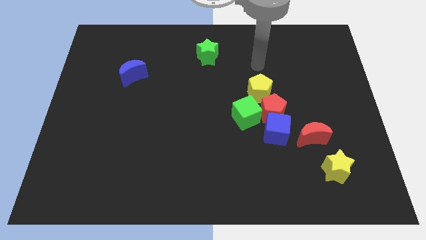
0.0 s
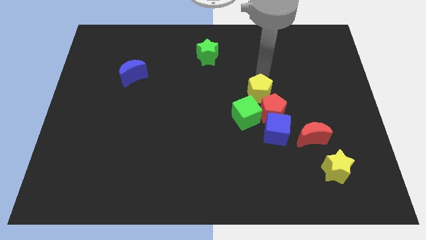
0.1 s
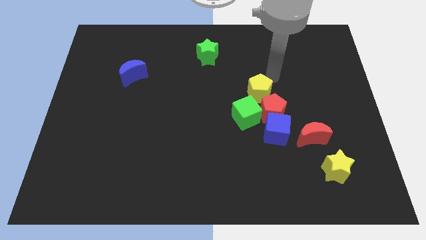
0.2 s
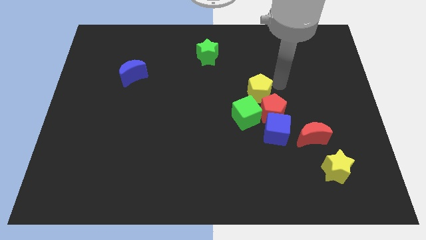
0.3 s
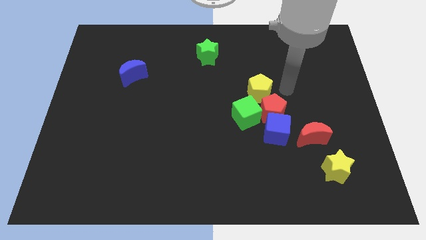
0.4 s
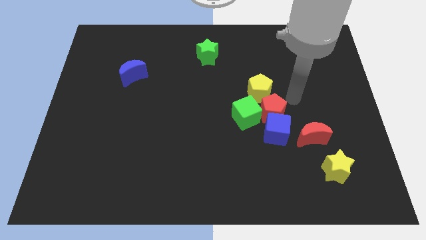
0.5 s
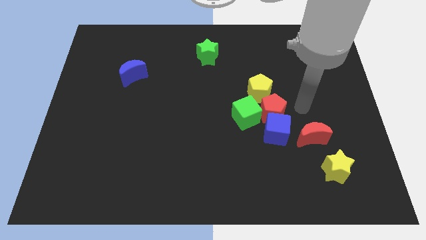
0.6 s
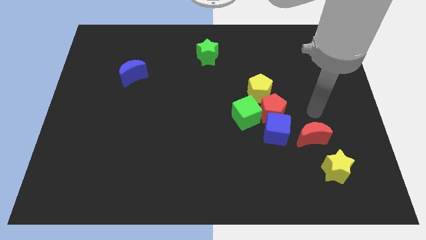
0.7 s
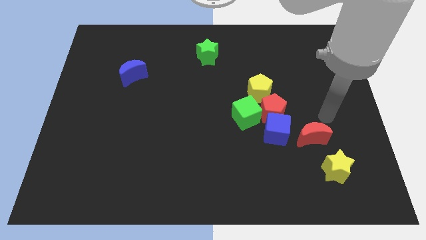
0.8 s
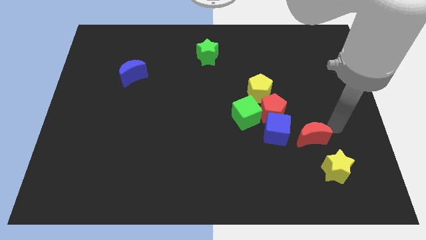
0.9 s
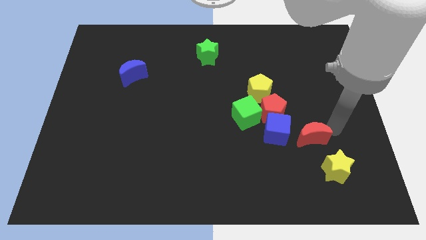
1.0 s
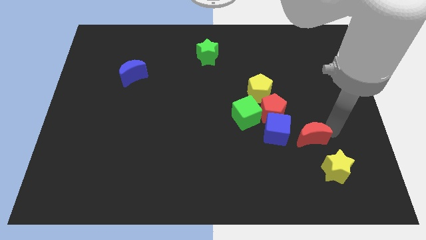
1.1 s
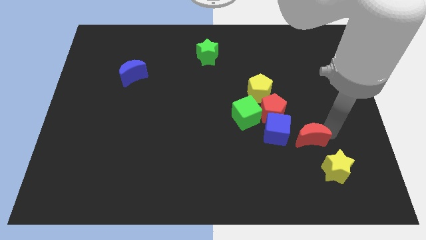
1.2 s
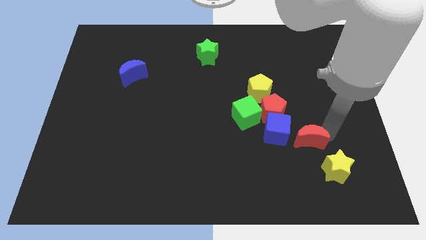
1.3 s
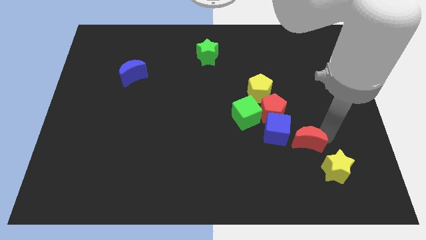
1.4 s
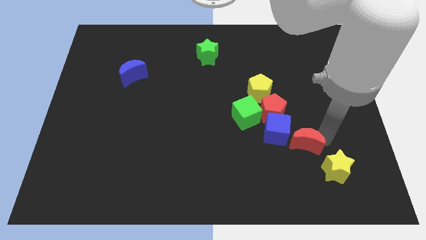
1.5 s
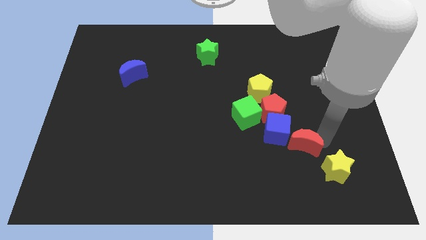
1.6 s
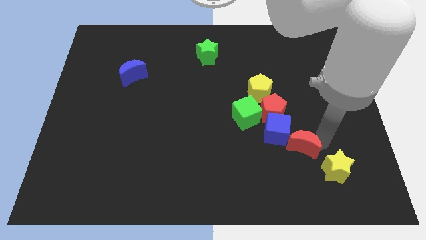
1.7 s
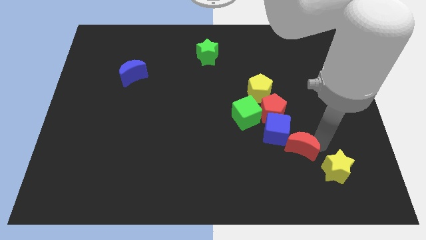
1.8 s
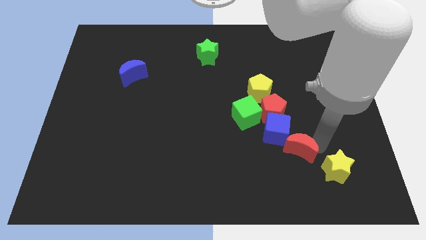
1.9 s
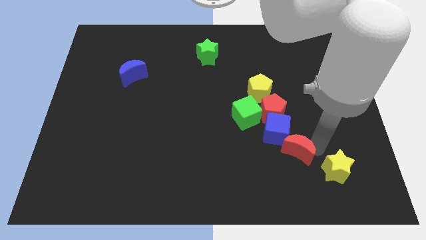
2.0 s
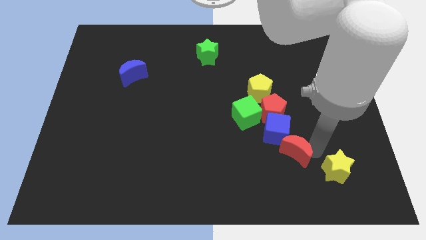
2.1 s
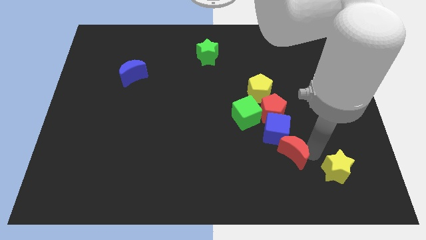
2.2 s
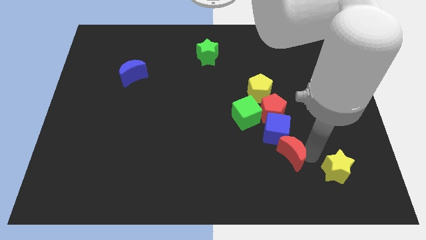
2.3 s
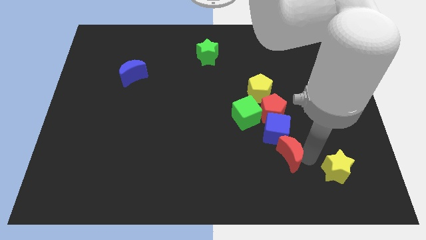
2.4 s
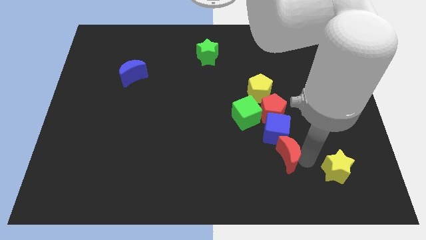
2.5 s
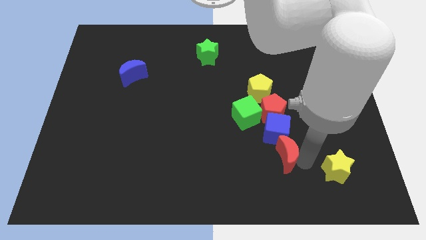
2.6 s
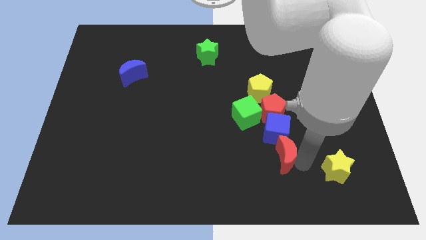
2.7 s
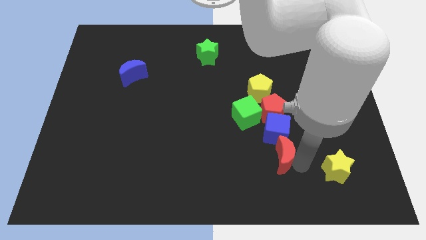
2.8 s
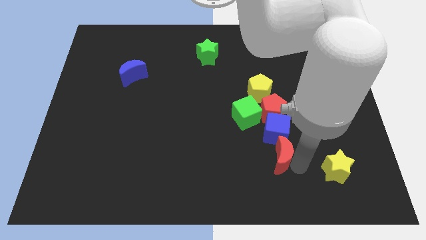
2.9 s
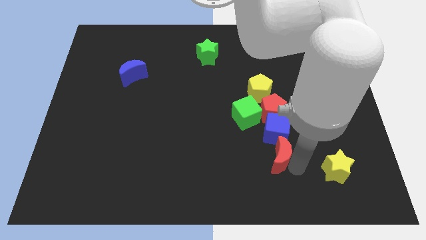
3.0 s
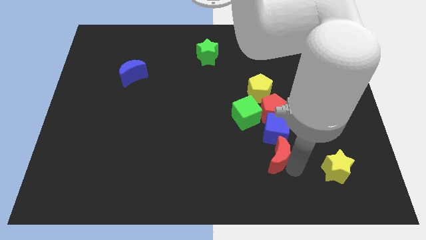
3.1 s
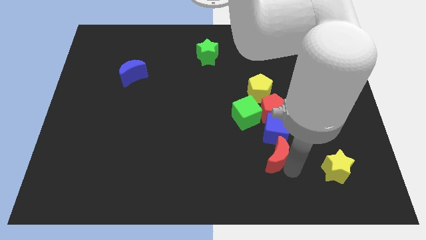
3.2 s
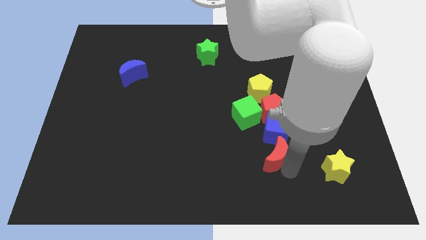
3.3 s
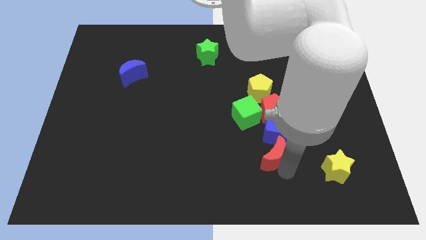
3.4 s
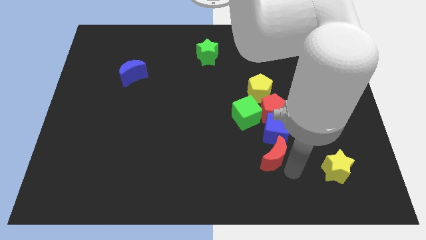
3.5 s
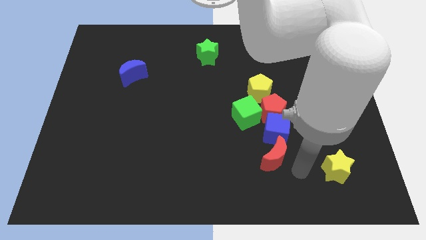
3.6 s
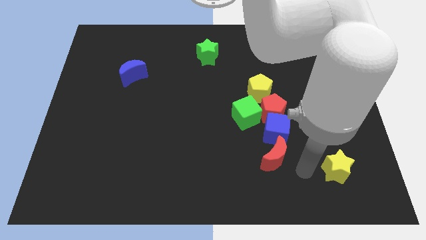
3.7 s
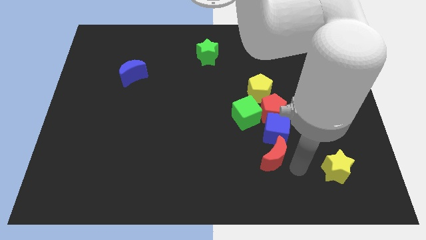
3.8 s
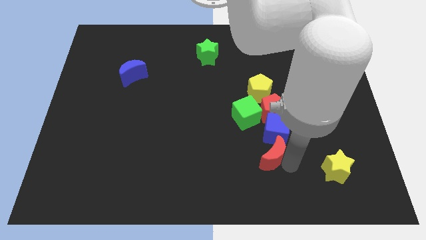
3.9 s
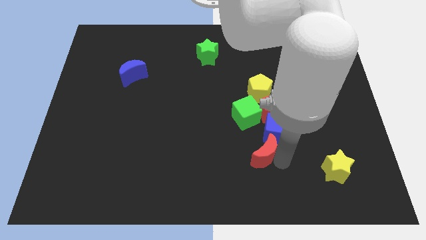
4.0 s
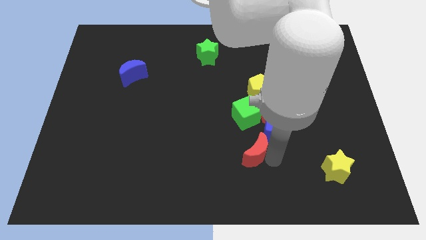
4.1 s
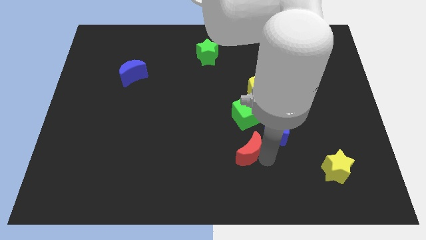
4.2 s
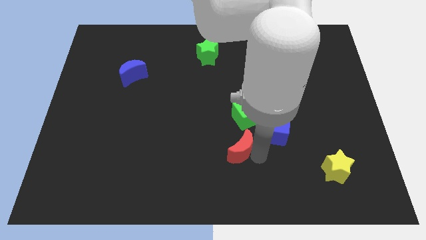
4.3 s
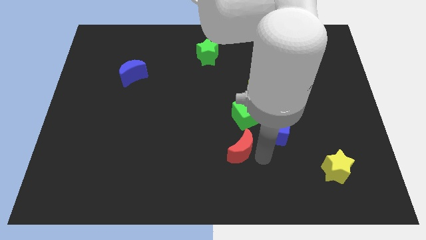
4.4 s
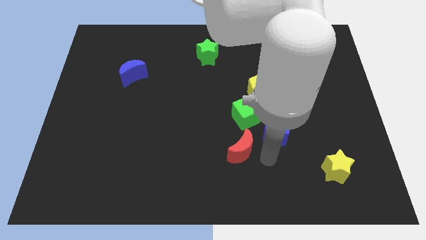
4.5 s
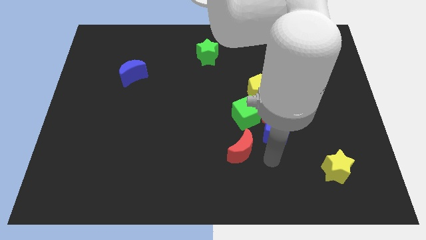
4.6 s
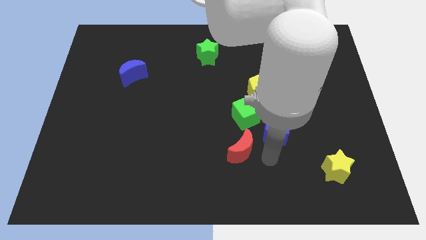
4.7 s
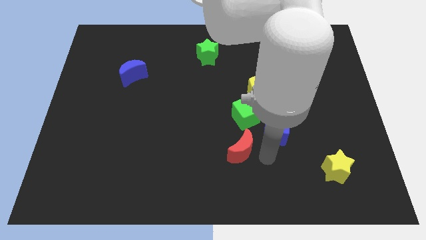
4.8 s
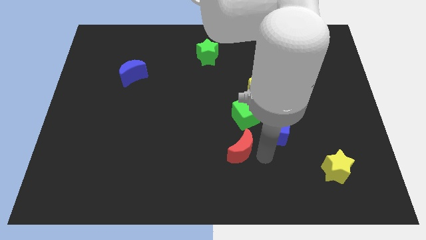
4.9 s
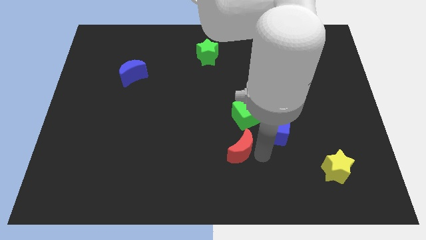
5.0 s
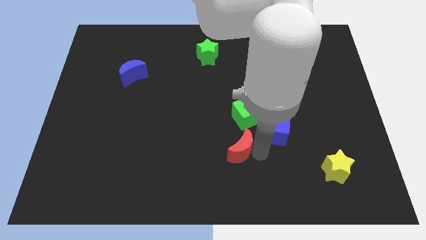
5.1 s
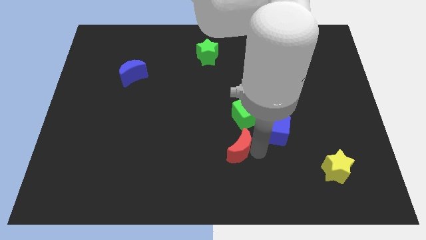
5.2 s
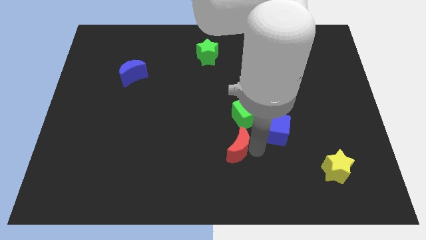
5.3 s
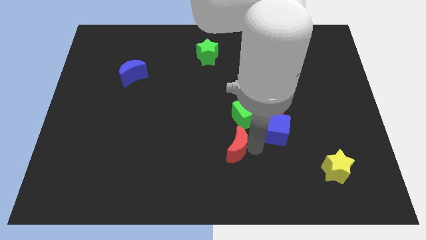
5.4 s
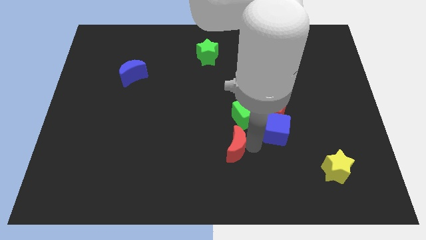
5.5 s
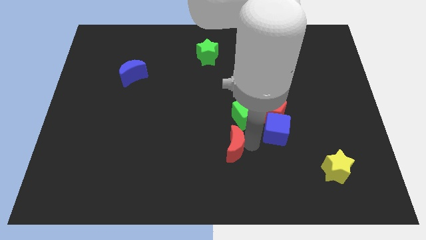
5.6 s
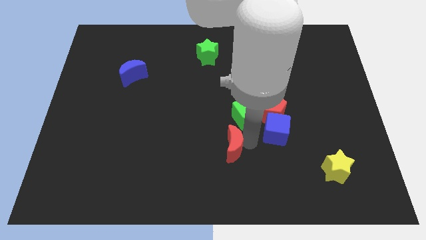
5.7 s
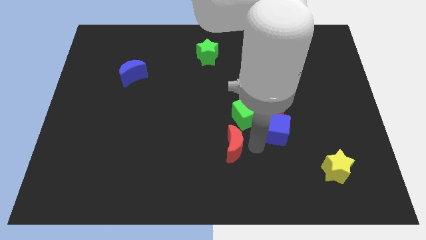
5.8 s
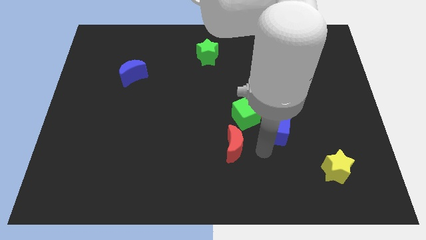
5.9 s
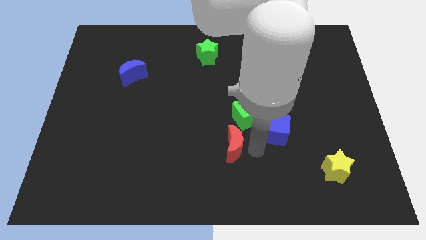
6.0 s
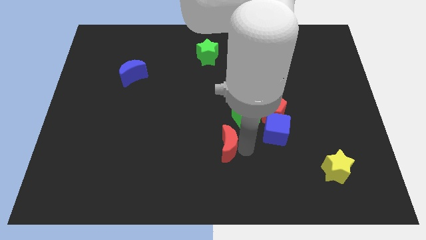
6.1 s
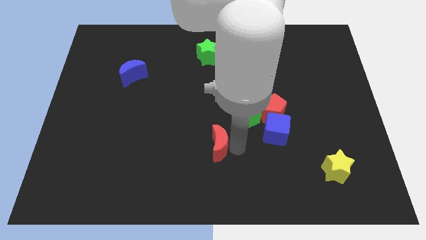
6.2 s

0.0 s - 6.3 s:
move the red moon to the left

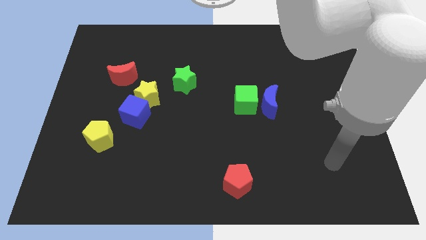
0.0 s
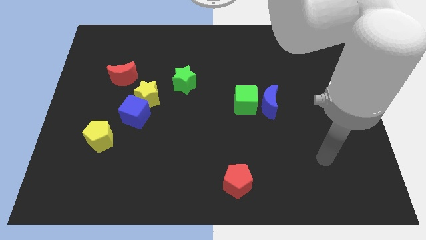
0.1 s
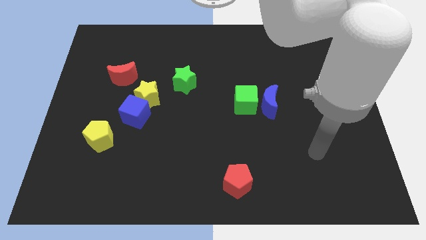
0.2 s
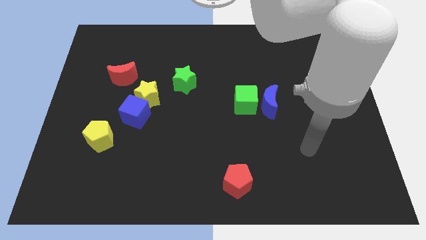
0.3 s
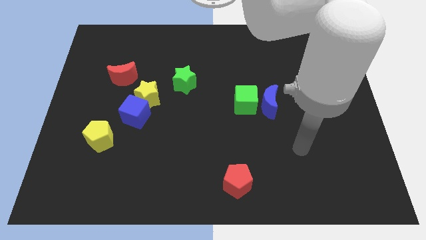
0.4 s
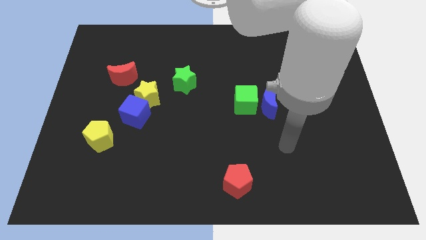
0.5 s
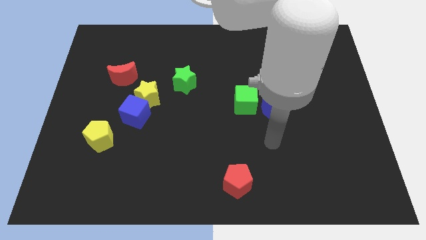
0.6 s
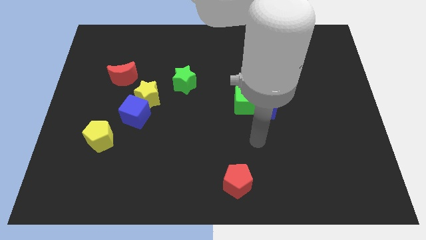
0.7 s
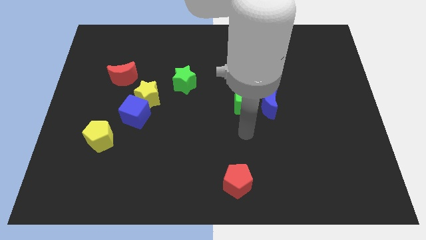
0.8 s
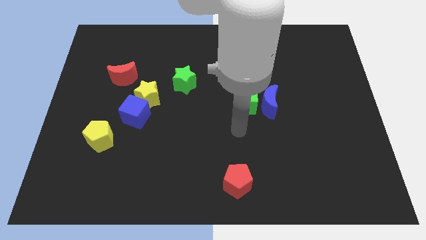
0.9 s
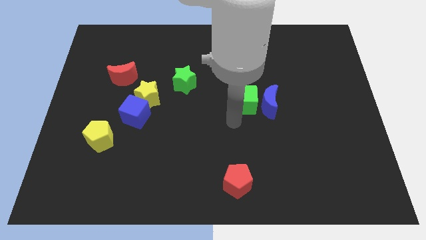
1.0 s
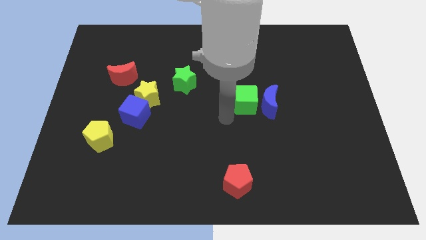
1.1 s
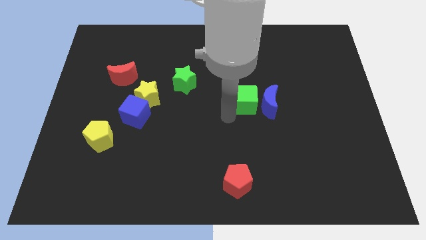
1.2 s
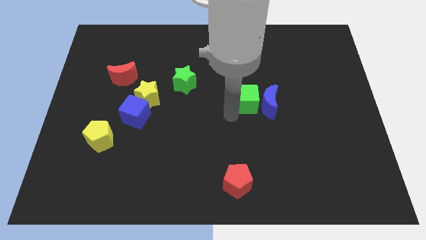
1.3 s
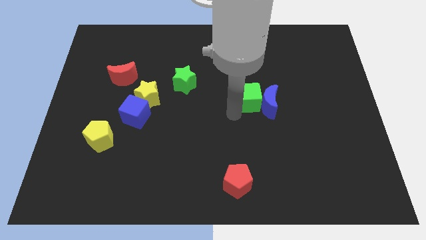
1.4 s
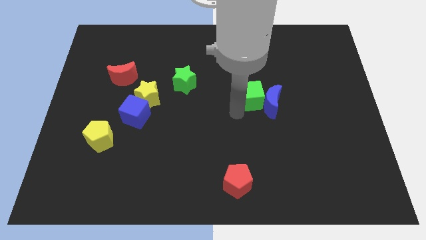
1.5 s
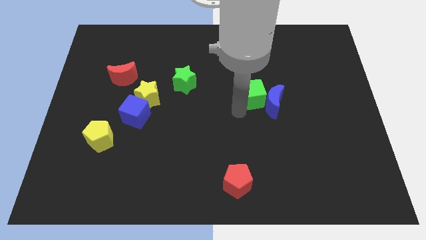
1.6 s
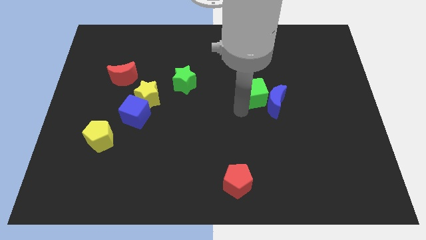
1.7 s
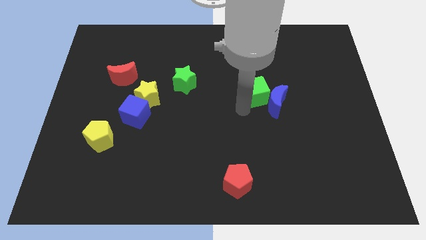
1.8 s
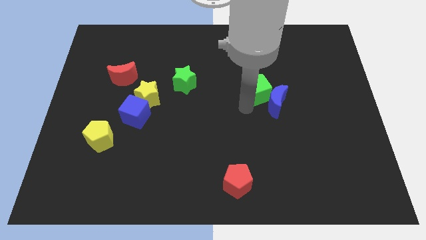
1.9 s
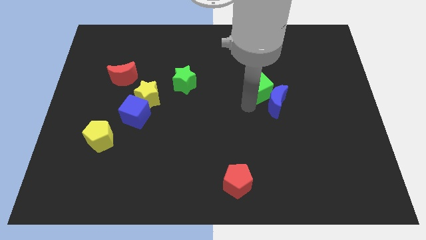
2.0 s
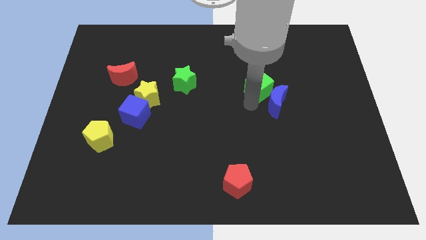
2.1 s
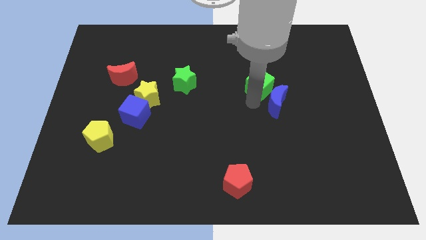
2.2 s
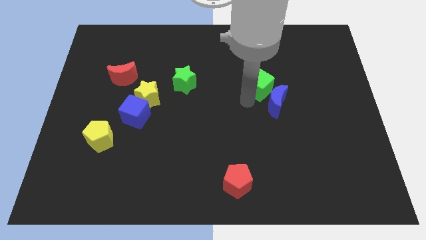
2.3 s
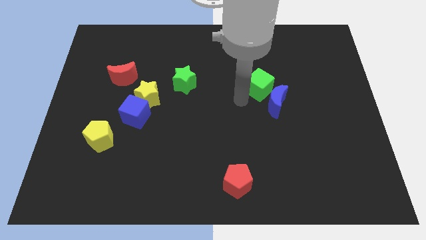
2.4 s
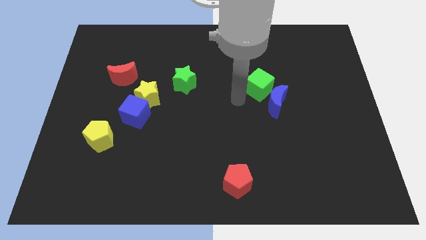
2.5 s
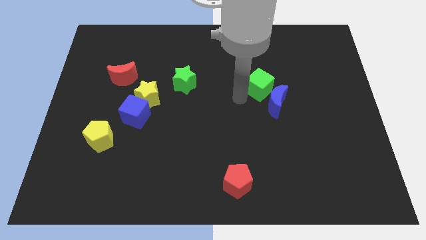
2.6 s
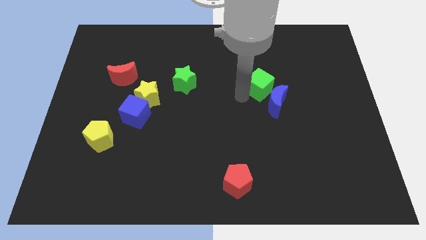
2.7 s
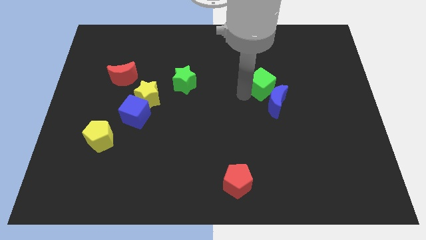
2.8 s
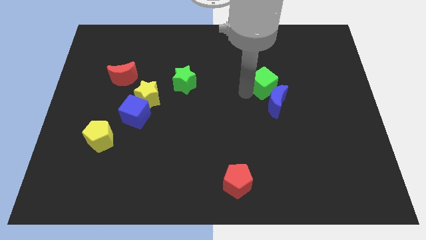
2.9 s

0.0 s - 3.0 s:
slide the green cube a little bit diagonally up and to the right
